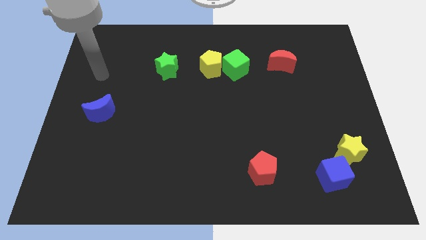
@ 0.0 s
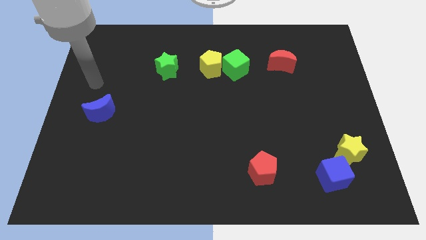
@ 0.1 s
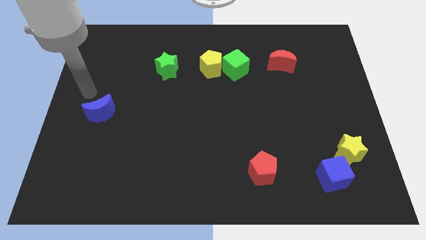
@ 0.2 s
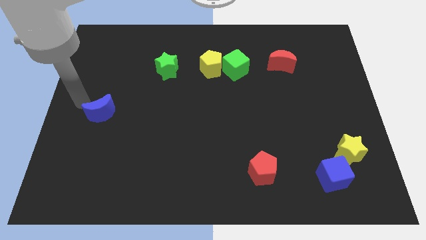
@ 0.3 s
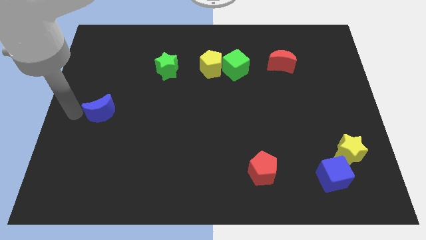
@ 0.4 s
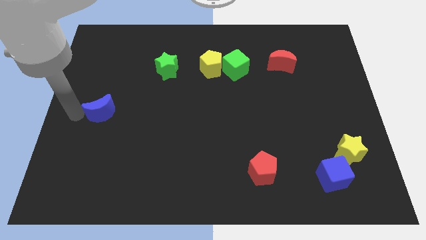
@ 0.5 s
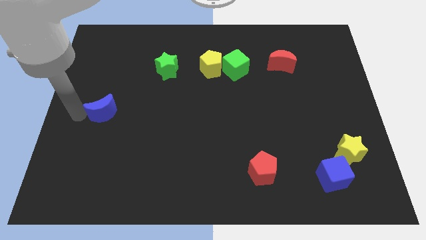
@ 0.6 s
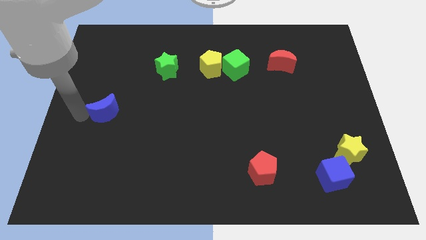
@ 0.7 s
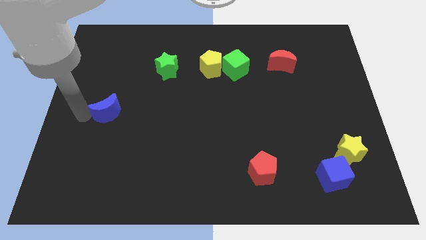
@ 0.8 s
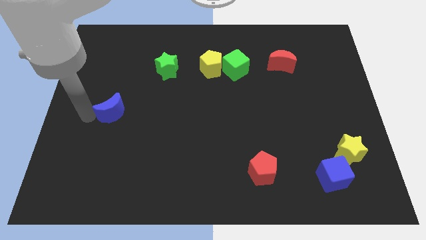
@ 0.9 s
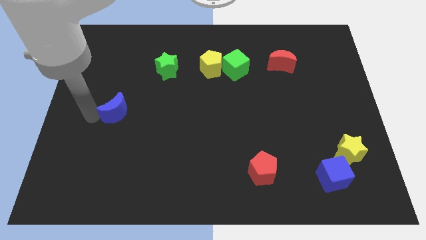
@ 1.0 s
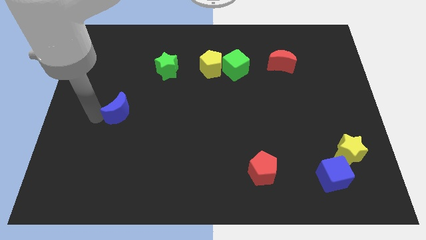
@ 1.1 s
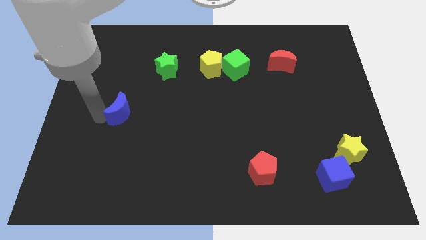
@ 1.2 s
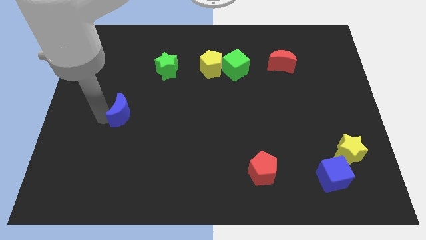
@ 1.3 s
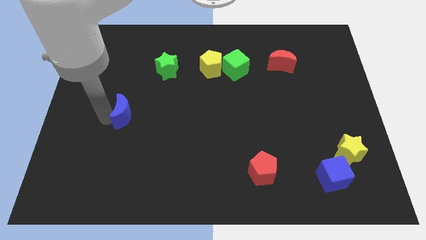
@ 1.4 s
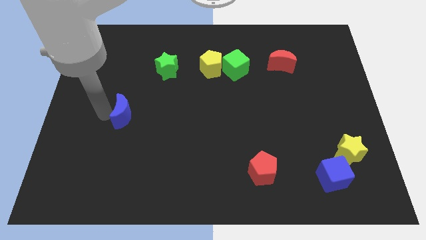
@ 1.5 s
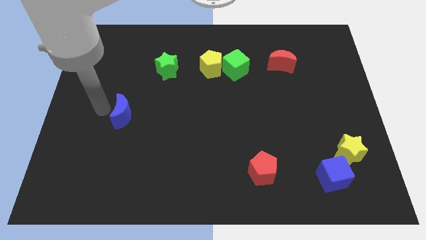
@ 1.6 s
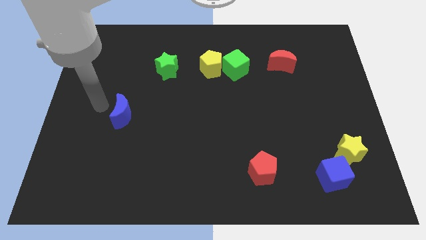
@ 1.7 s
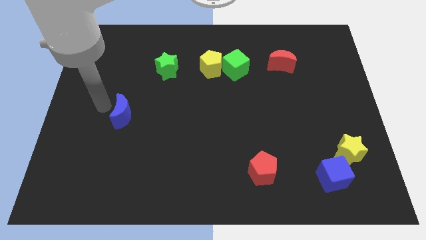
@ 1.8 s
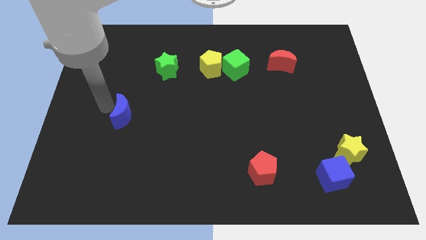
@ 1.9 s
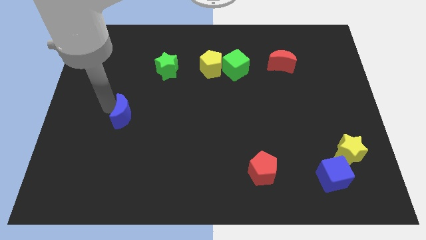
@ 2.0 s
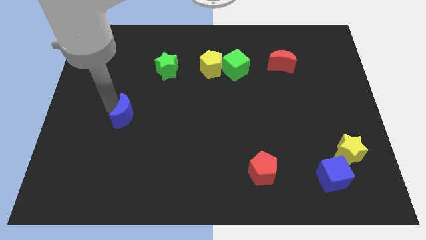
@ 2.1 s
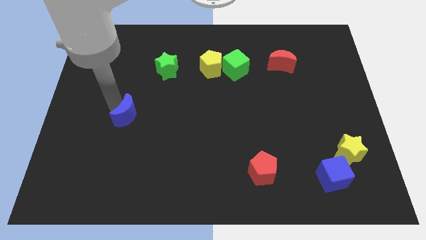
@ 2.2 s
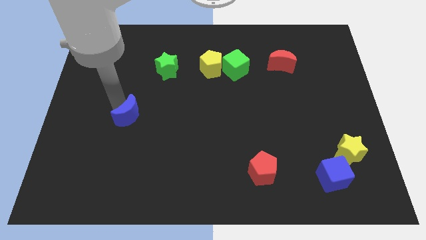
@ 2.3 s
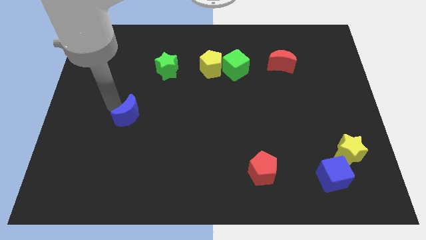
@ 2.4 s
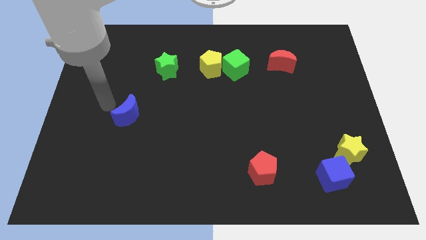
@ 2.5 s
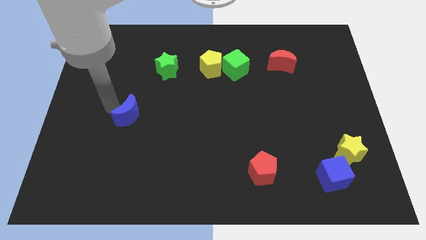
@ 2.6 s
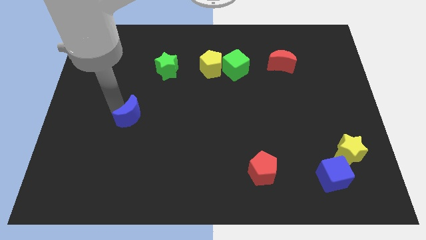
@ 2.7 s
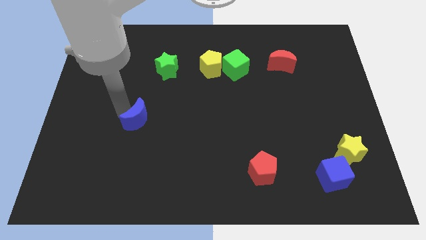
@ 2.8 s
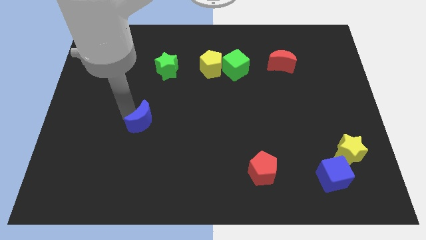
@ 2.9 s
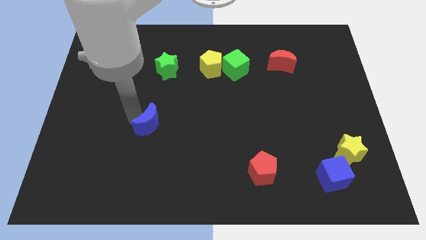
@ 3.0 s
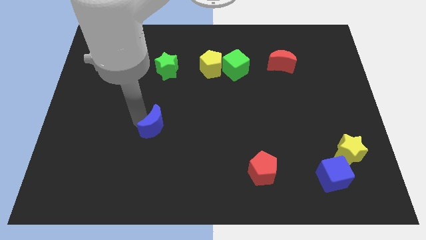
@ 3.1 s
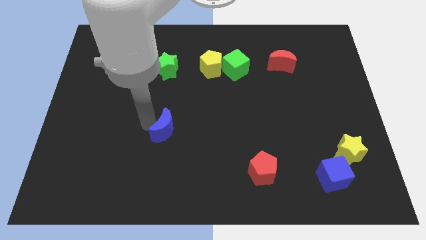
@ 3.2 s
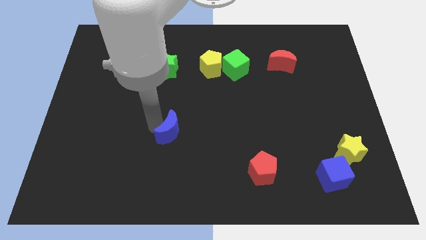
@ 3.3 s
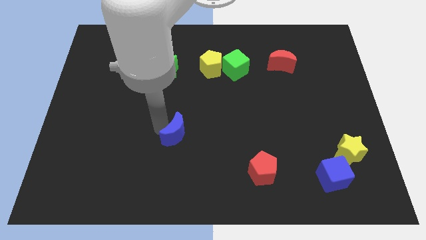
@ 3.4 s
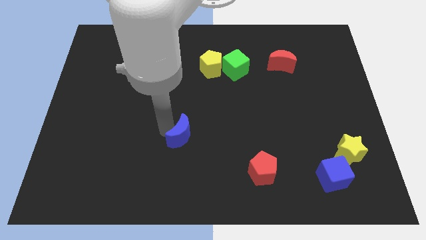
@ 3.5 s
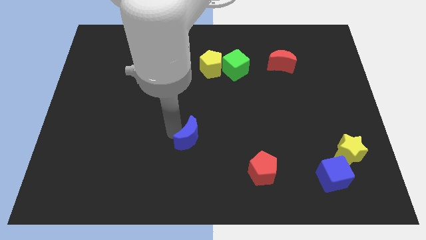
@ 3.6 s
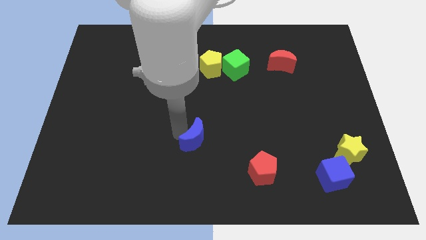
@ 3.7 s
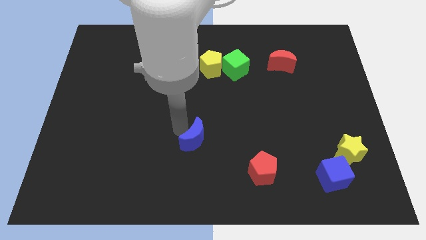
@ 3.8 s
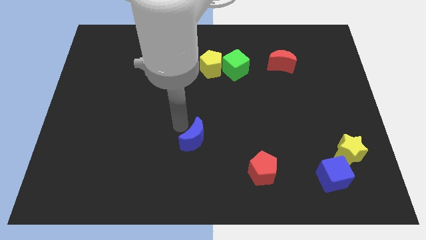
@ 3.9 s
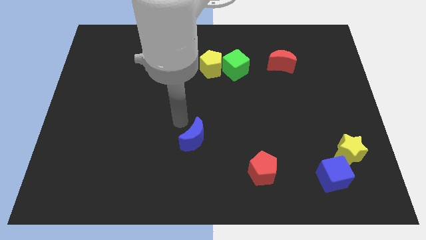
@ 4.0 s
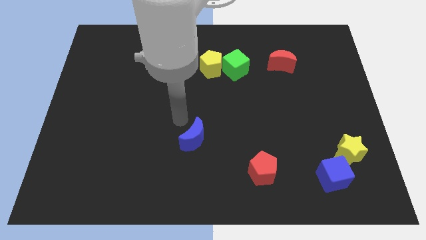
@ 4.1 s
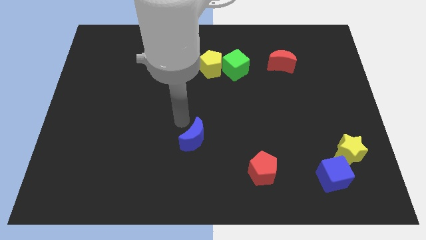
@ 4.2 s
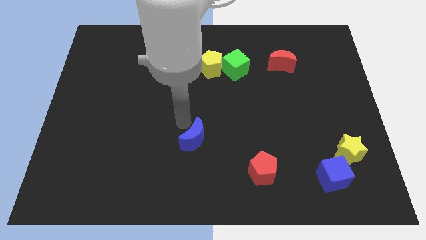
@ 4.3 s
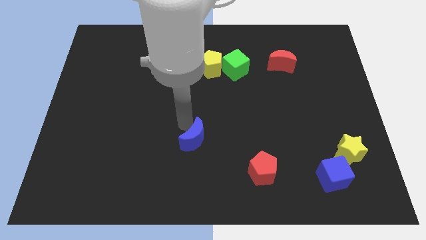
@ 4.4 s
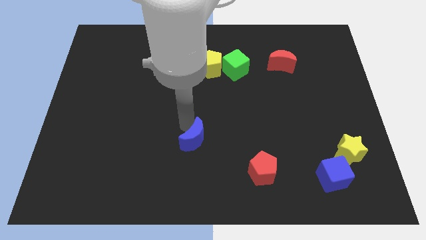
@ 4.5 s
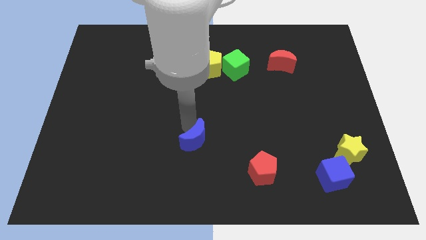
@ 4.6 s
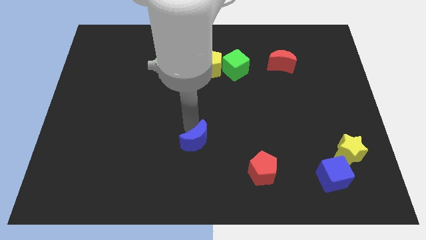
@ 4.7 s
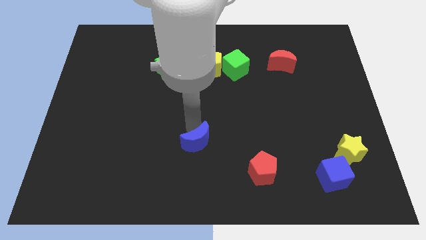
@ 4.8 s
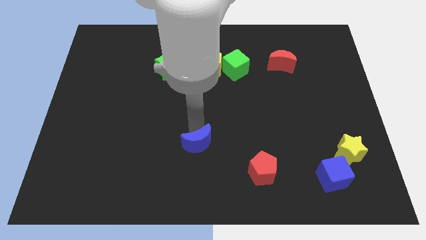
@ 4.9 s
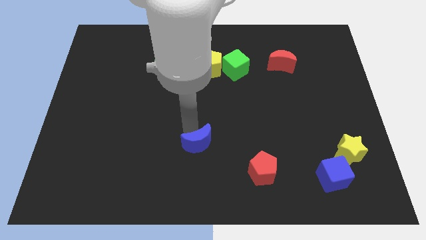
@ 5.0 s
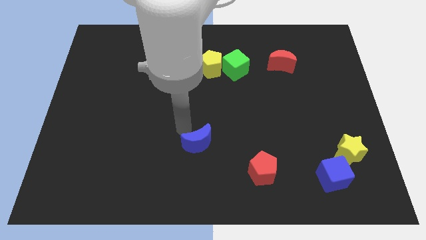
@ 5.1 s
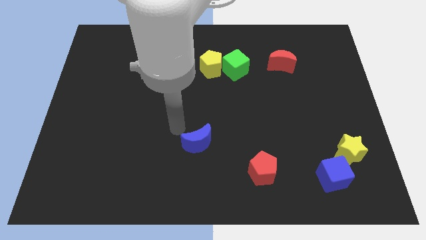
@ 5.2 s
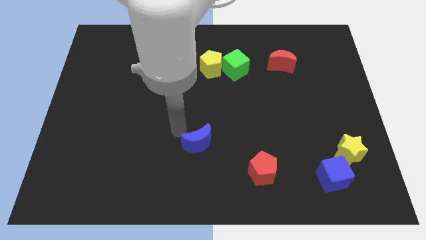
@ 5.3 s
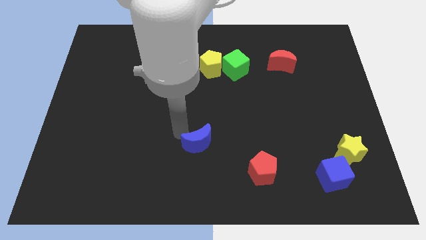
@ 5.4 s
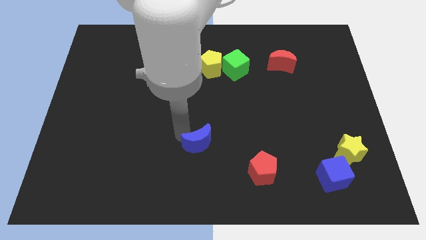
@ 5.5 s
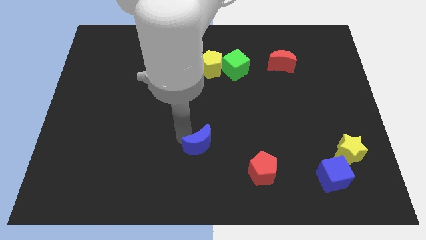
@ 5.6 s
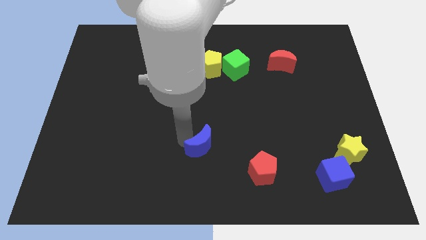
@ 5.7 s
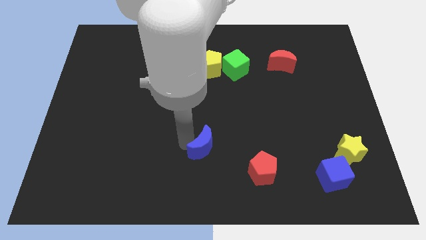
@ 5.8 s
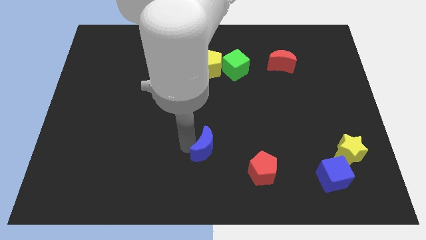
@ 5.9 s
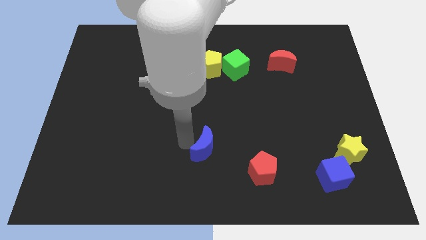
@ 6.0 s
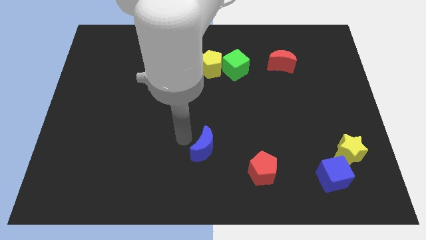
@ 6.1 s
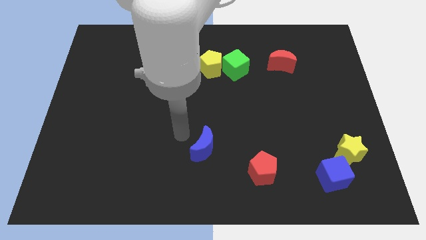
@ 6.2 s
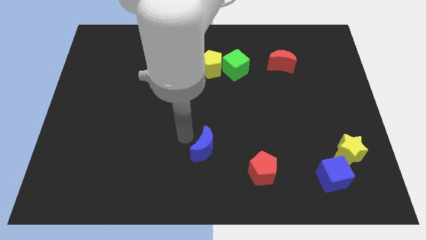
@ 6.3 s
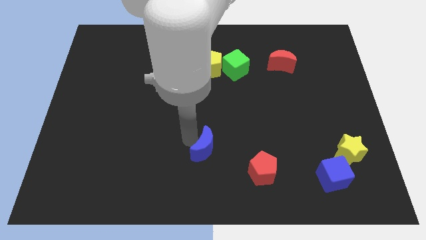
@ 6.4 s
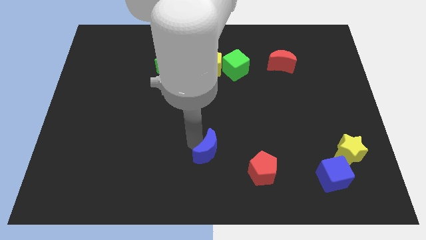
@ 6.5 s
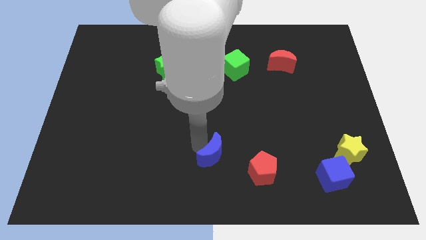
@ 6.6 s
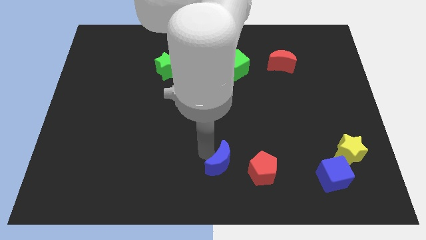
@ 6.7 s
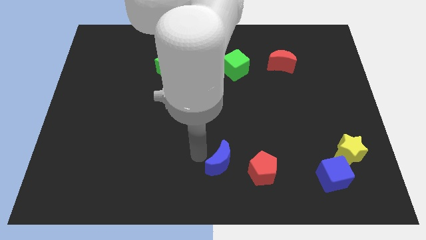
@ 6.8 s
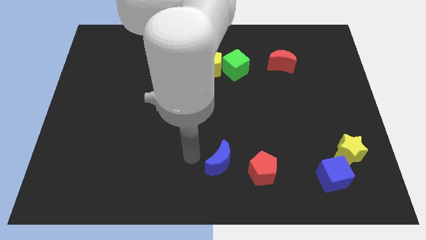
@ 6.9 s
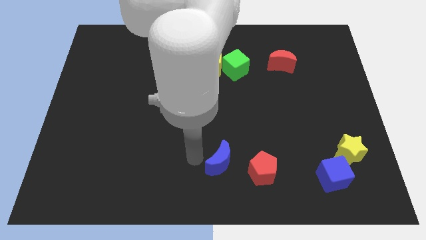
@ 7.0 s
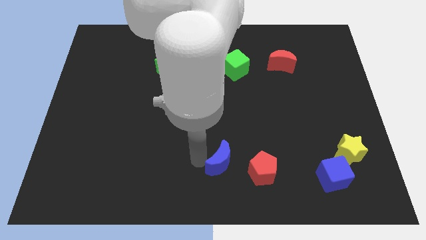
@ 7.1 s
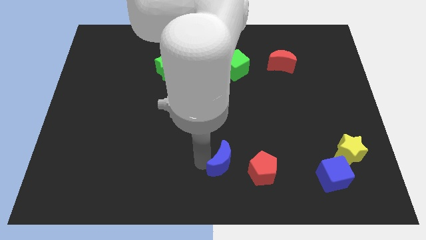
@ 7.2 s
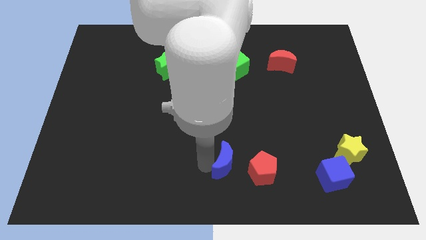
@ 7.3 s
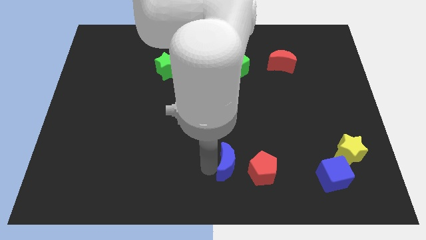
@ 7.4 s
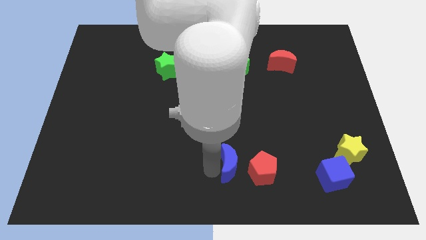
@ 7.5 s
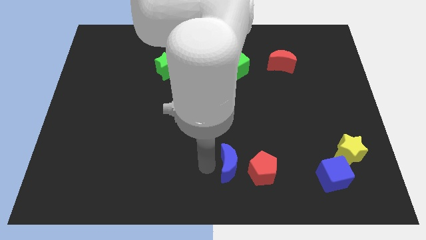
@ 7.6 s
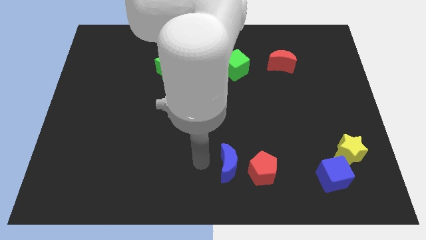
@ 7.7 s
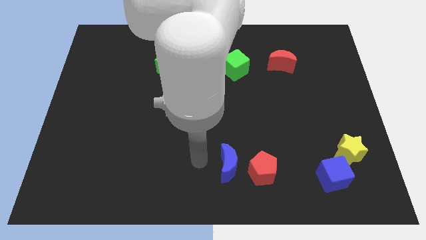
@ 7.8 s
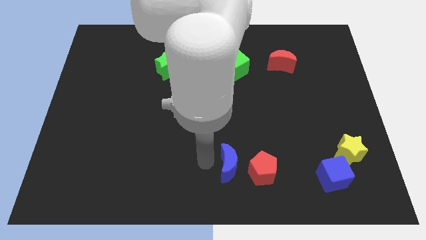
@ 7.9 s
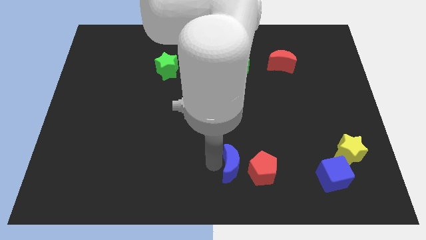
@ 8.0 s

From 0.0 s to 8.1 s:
put the blue moon close to the red pentagon
